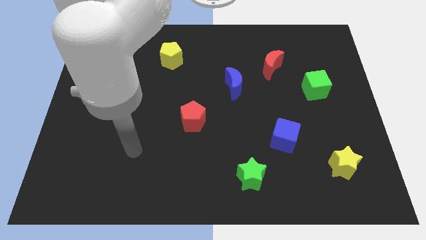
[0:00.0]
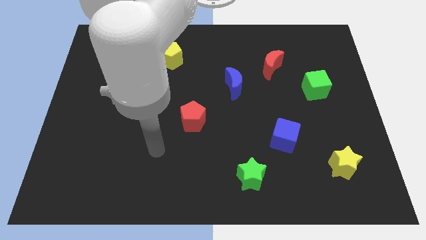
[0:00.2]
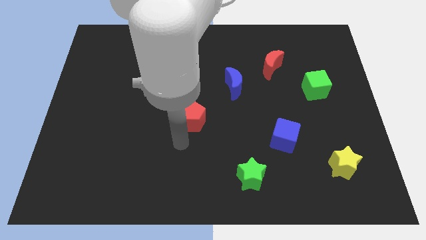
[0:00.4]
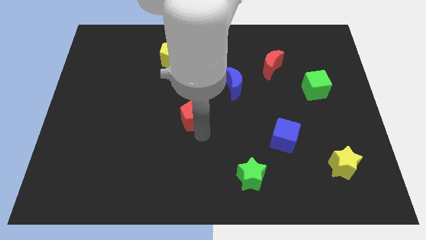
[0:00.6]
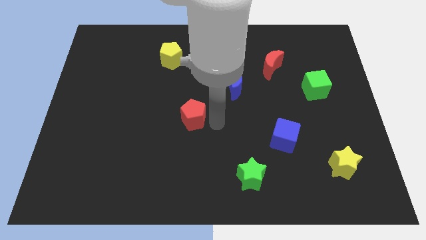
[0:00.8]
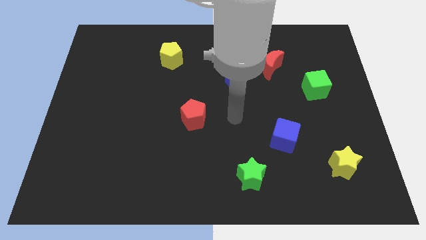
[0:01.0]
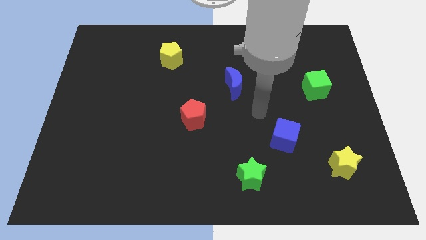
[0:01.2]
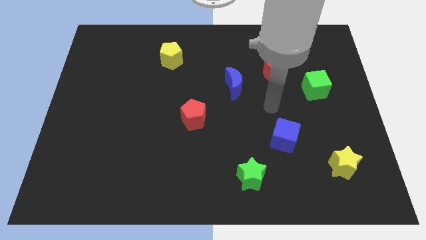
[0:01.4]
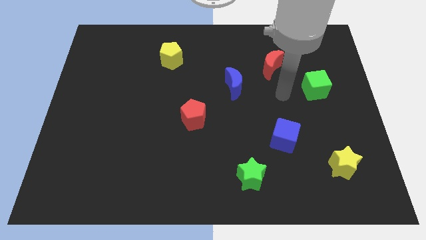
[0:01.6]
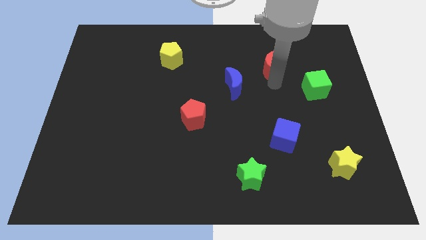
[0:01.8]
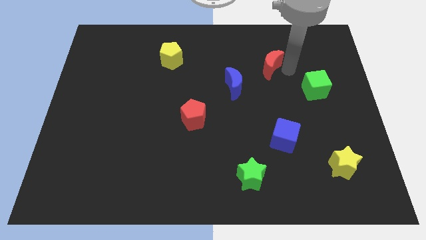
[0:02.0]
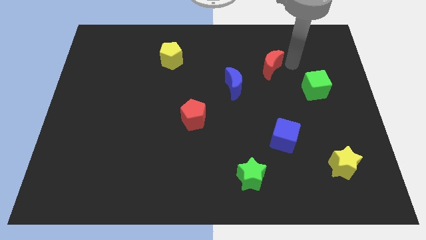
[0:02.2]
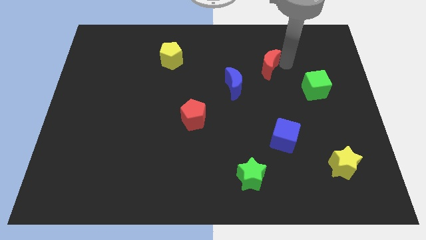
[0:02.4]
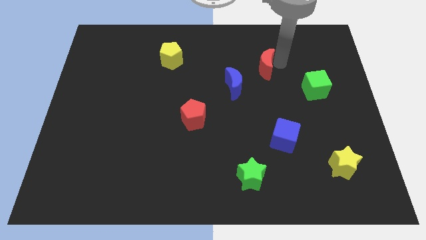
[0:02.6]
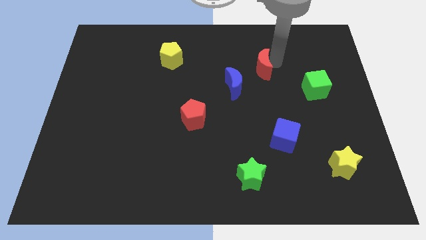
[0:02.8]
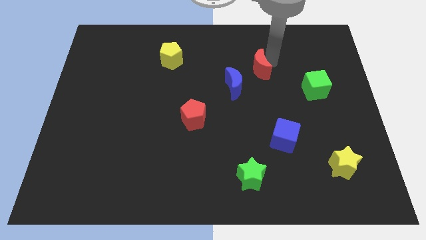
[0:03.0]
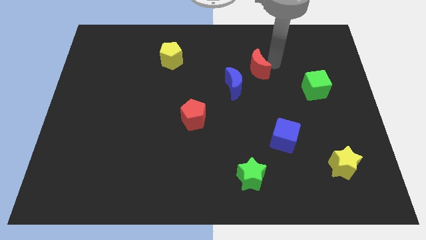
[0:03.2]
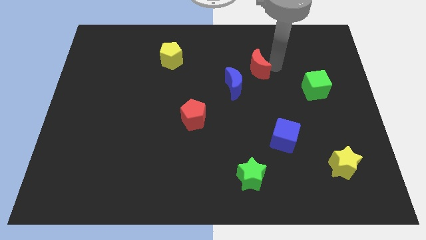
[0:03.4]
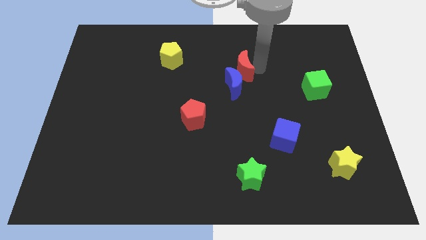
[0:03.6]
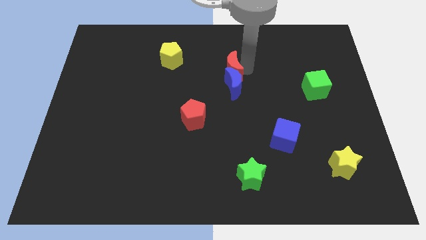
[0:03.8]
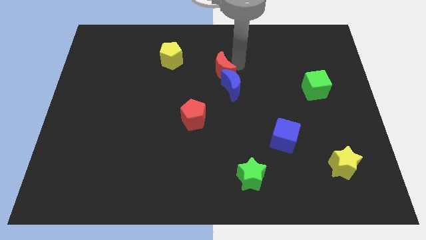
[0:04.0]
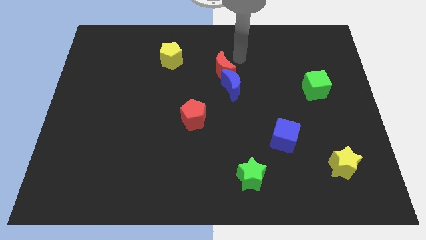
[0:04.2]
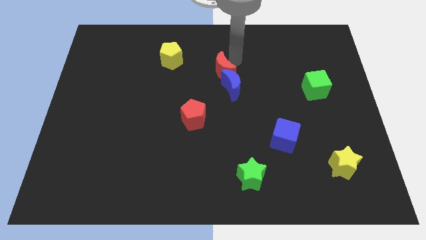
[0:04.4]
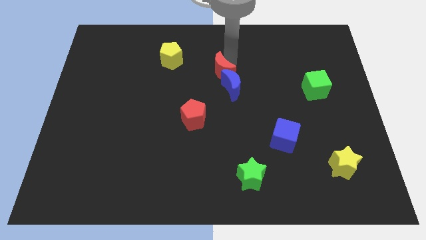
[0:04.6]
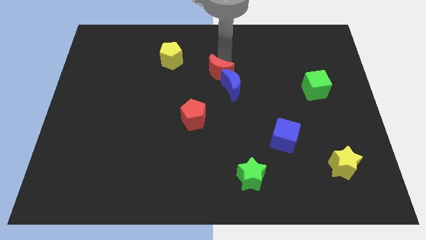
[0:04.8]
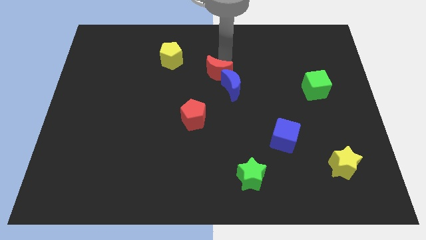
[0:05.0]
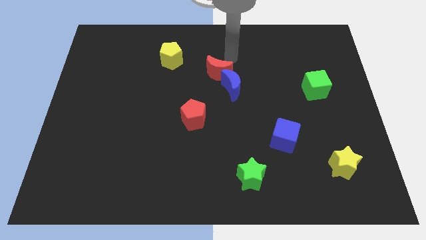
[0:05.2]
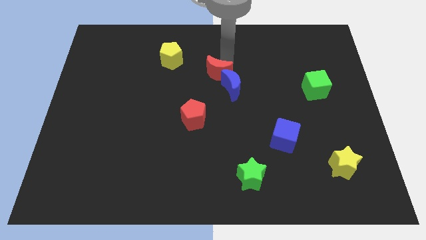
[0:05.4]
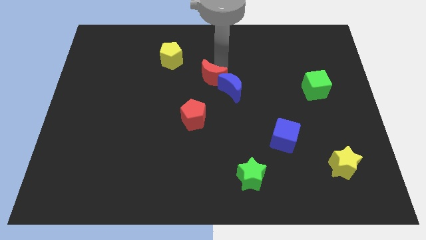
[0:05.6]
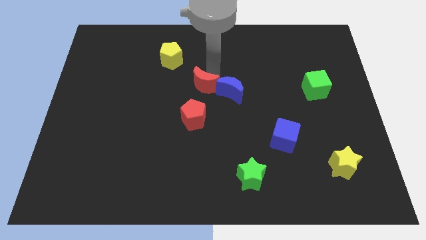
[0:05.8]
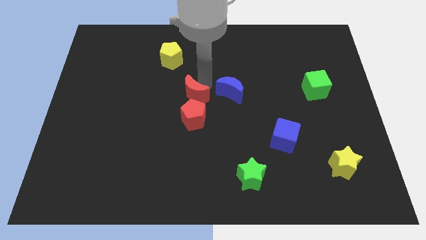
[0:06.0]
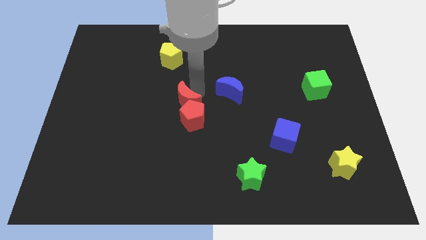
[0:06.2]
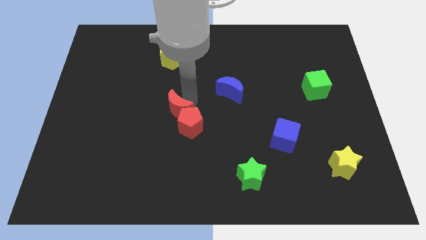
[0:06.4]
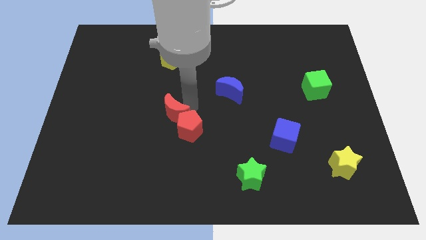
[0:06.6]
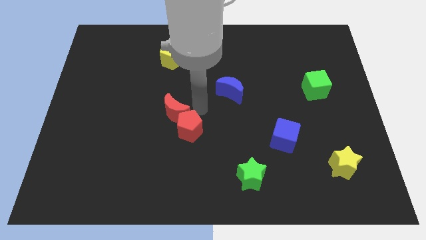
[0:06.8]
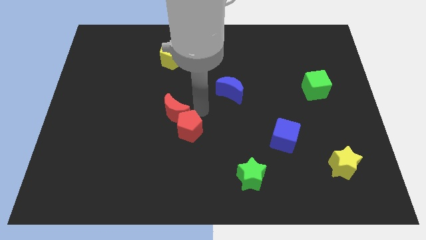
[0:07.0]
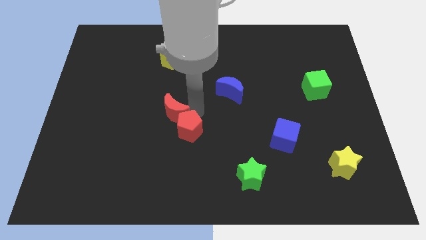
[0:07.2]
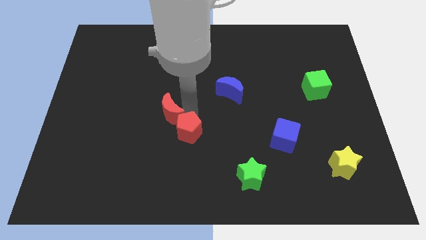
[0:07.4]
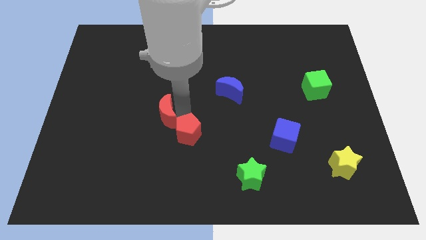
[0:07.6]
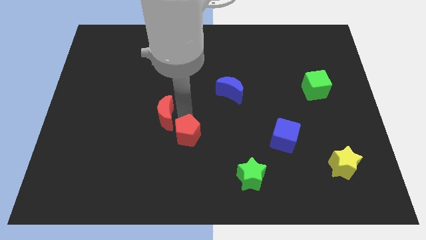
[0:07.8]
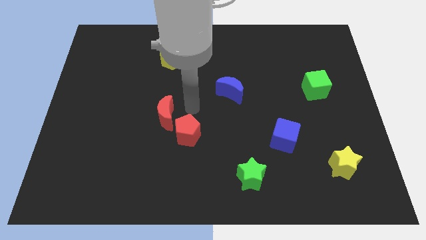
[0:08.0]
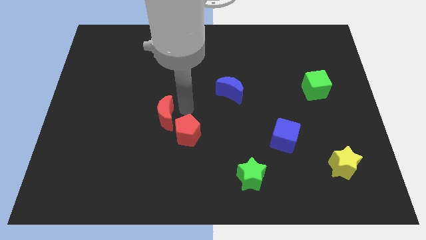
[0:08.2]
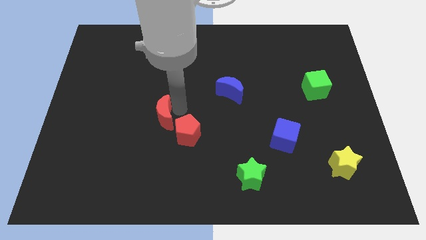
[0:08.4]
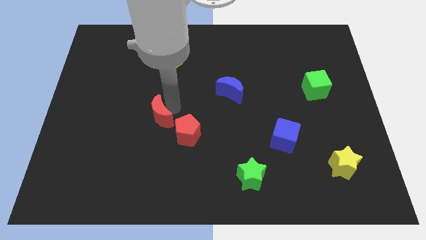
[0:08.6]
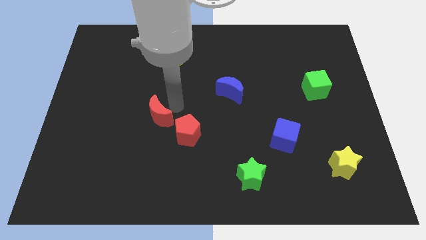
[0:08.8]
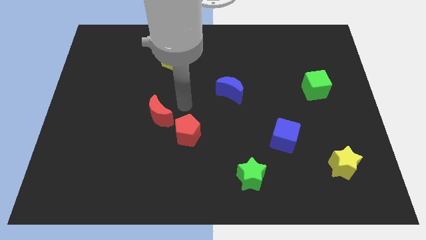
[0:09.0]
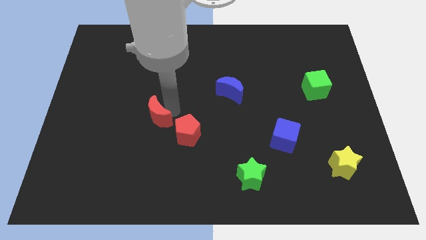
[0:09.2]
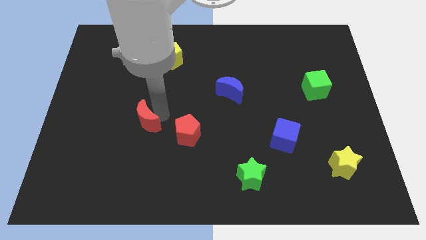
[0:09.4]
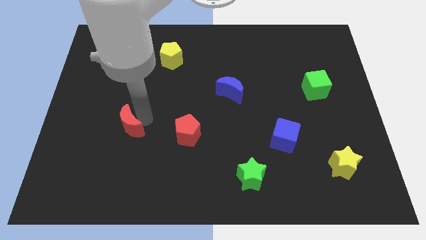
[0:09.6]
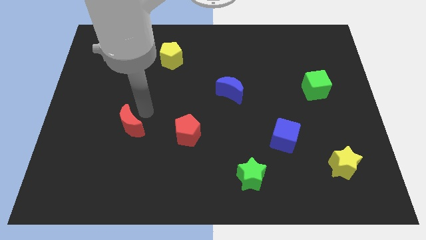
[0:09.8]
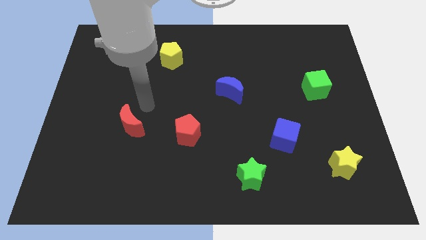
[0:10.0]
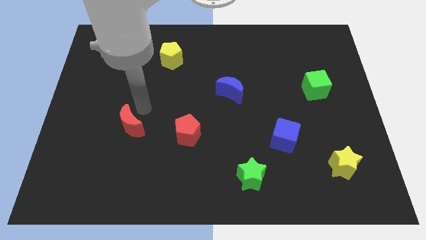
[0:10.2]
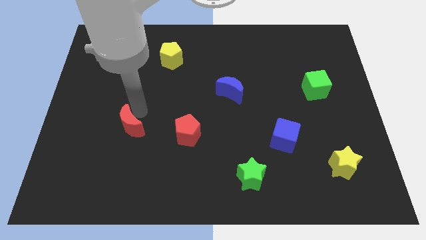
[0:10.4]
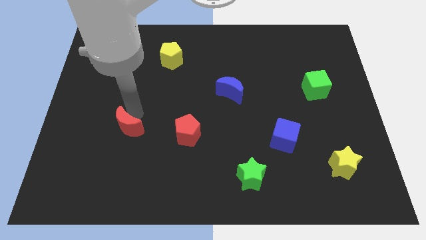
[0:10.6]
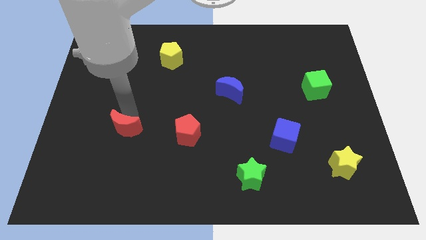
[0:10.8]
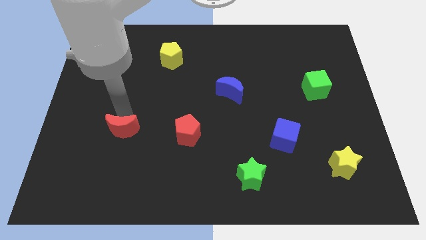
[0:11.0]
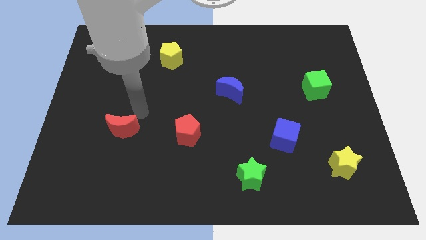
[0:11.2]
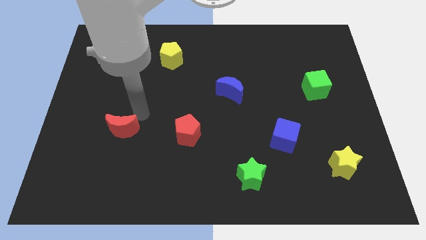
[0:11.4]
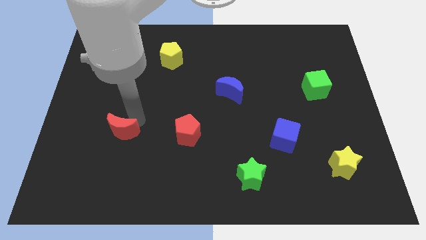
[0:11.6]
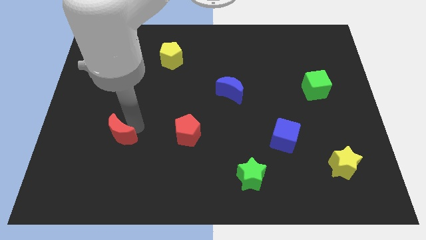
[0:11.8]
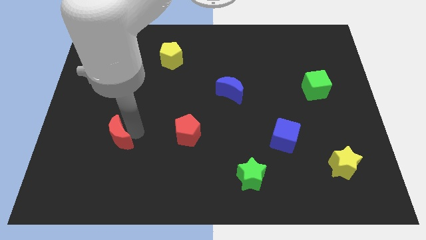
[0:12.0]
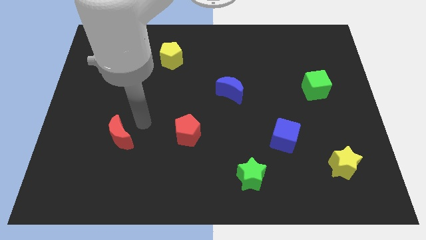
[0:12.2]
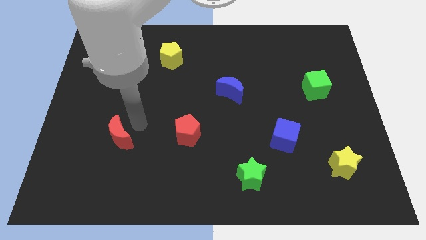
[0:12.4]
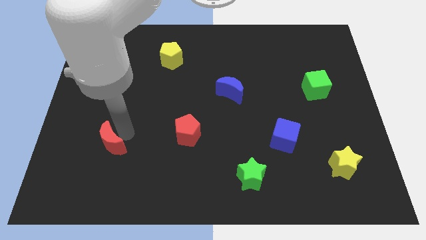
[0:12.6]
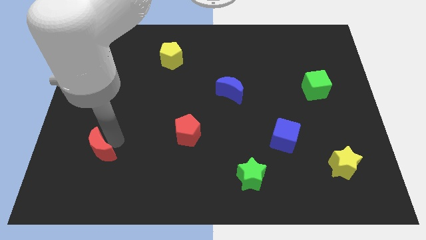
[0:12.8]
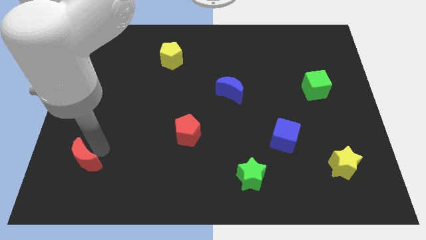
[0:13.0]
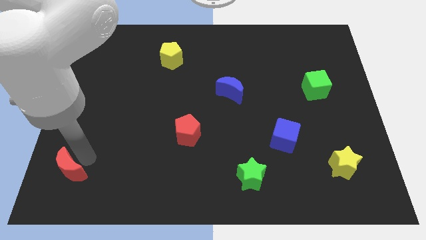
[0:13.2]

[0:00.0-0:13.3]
slide the red moon to the bottom left of the board

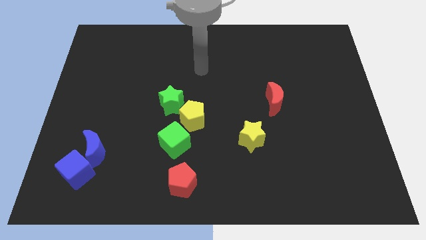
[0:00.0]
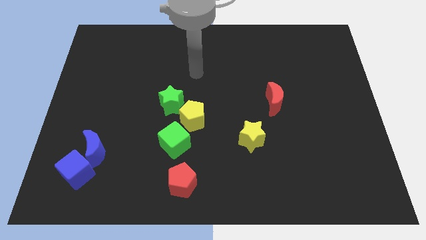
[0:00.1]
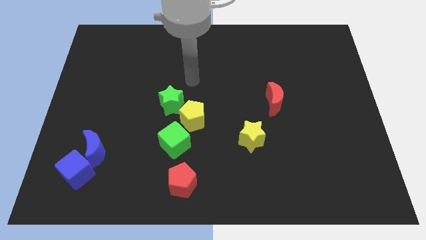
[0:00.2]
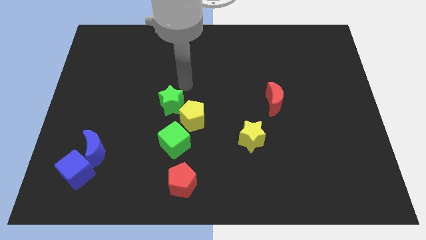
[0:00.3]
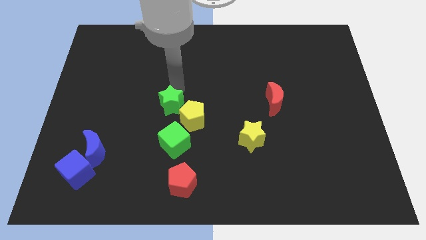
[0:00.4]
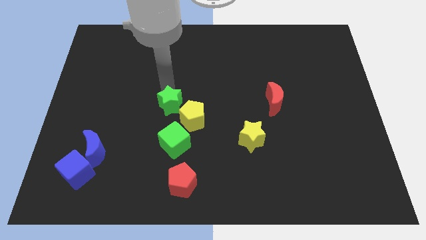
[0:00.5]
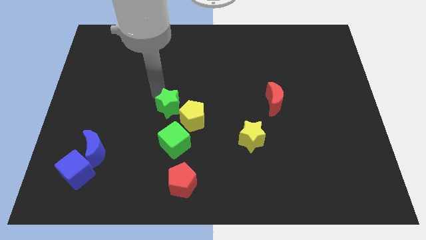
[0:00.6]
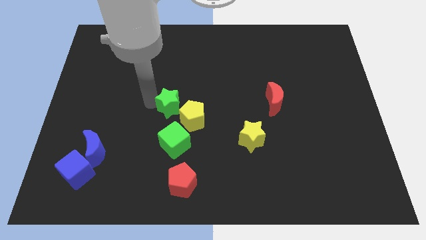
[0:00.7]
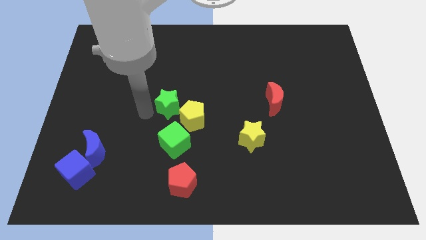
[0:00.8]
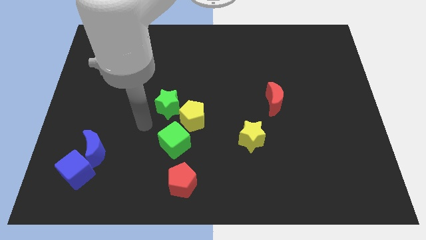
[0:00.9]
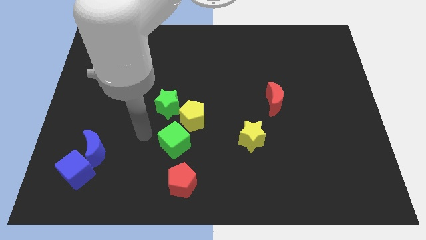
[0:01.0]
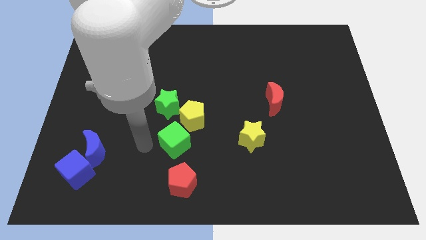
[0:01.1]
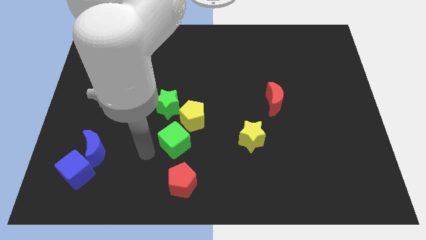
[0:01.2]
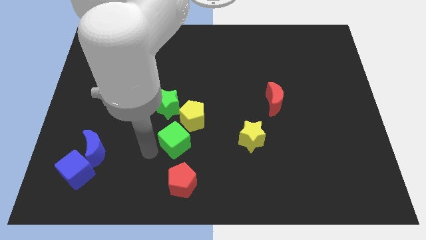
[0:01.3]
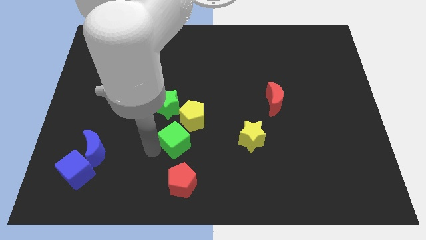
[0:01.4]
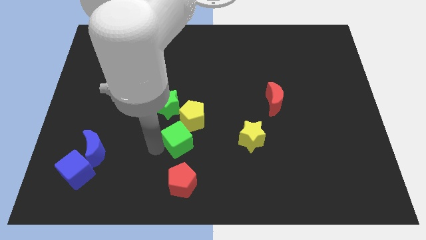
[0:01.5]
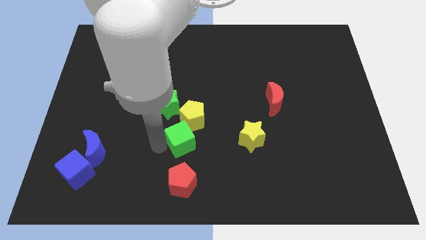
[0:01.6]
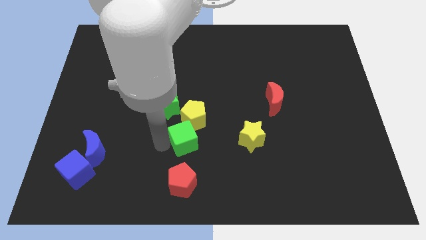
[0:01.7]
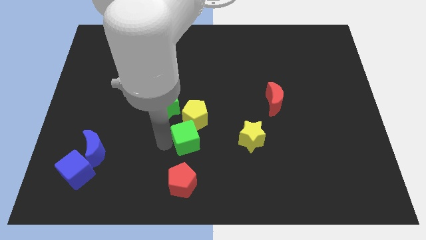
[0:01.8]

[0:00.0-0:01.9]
push the green cube to the middle of the board
